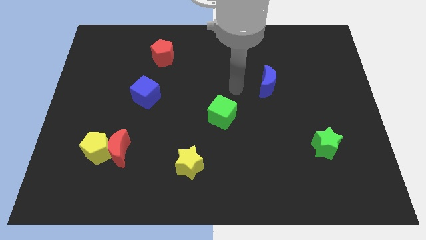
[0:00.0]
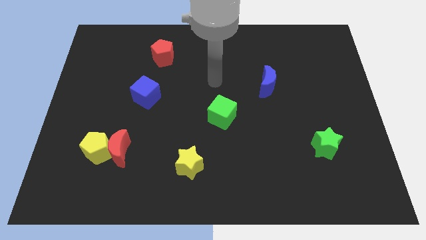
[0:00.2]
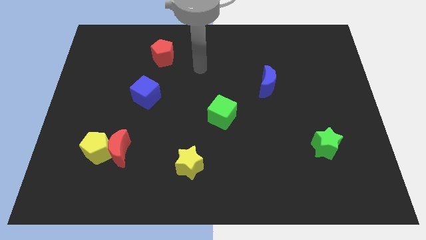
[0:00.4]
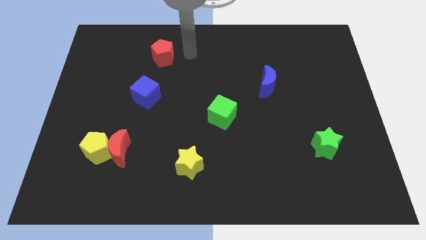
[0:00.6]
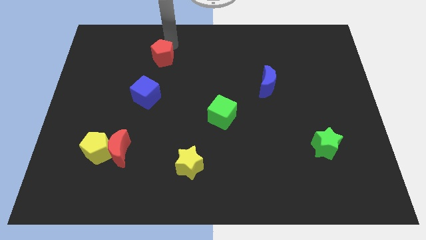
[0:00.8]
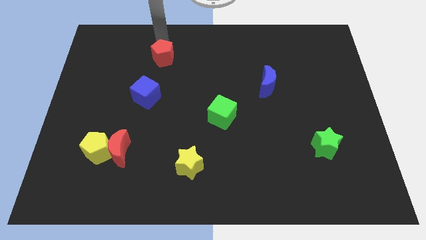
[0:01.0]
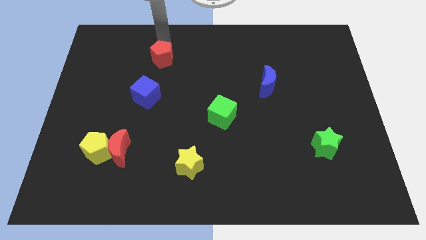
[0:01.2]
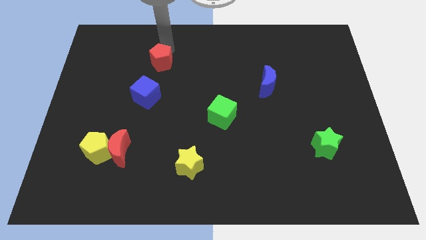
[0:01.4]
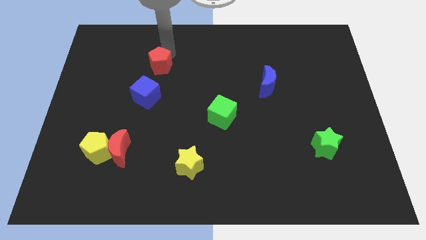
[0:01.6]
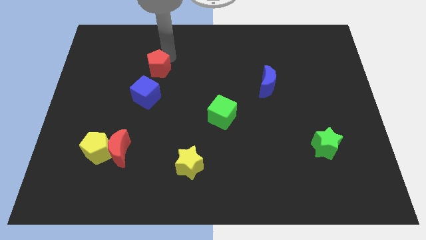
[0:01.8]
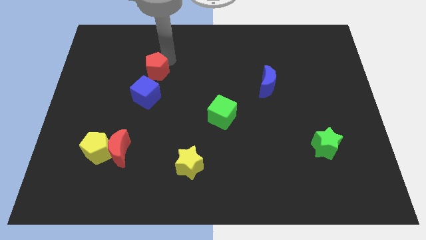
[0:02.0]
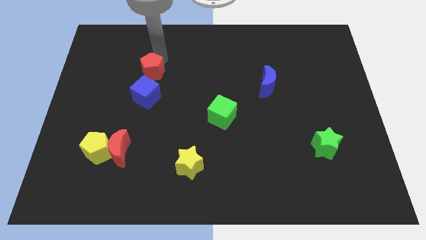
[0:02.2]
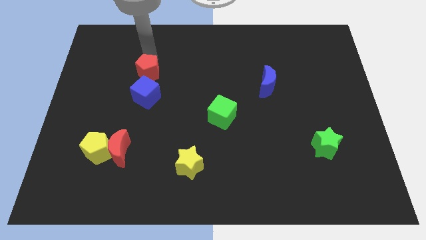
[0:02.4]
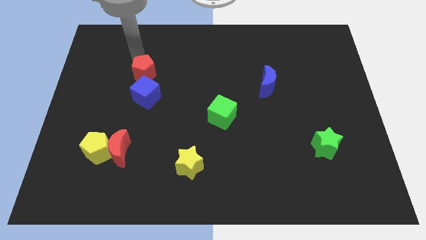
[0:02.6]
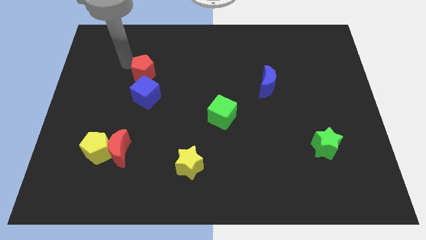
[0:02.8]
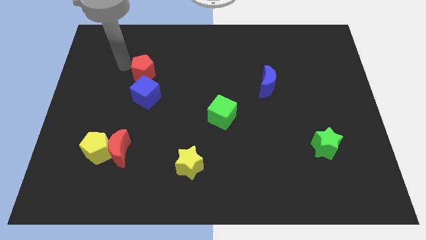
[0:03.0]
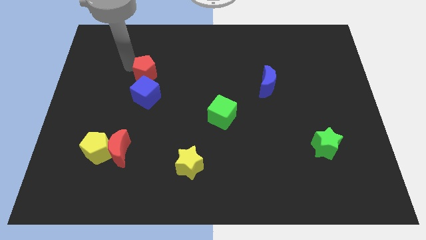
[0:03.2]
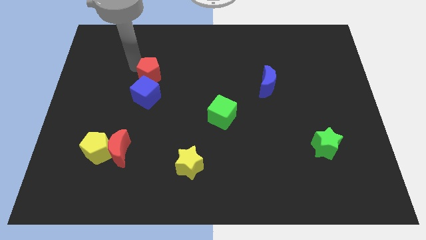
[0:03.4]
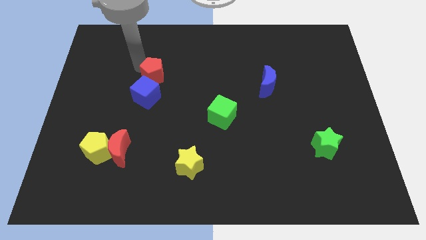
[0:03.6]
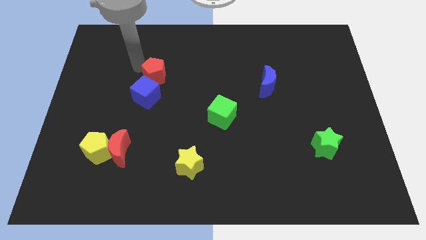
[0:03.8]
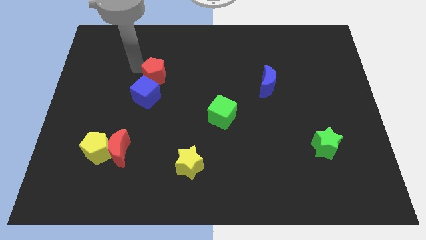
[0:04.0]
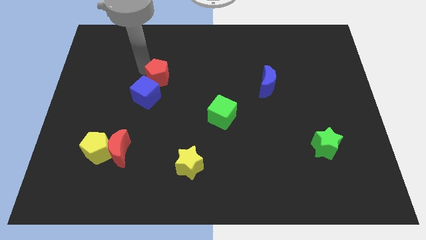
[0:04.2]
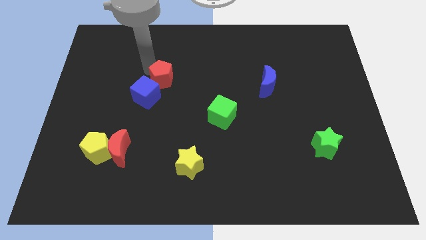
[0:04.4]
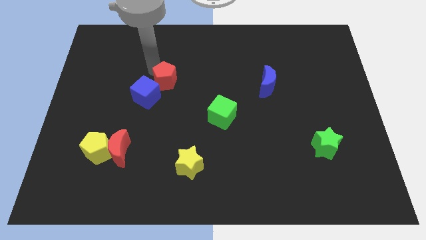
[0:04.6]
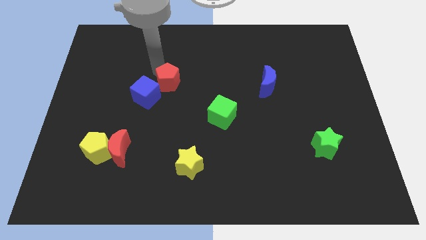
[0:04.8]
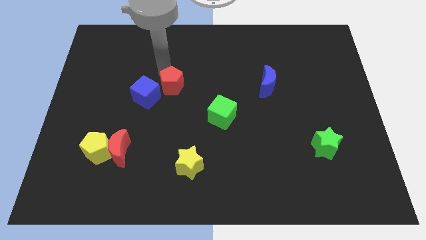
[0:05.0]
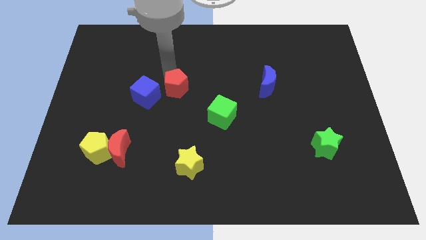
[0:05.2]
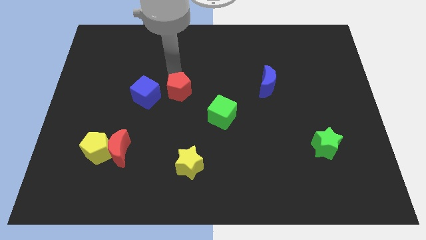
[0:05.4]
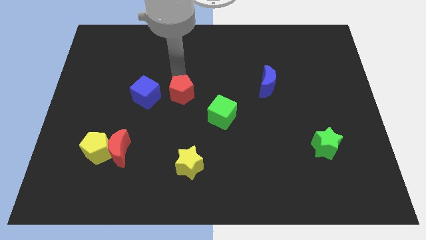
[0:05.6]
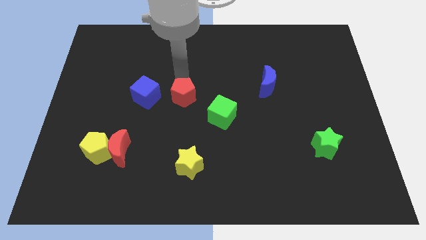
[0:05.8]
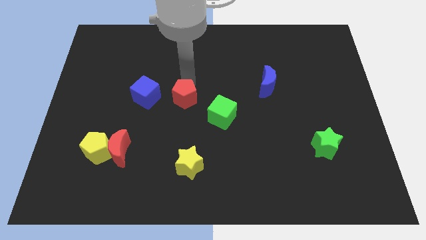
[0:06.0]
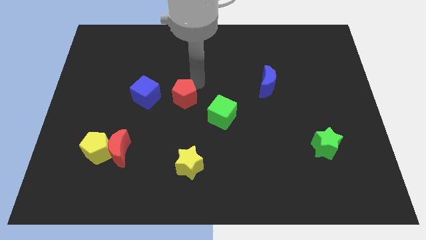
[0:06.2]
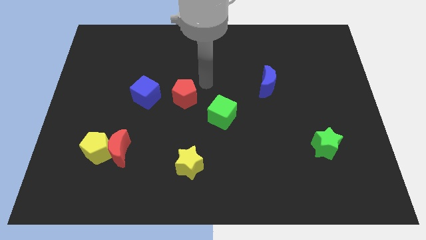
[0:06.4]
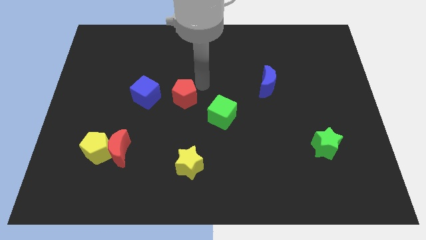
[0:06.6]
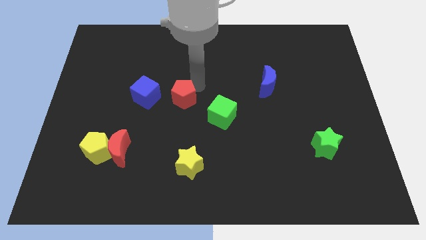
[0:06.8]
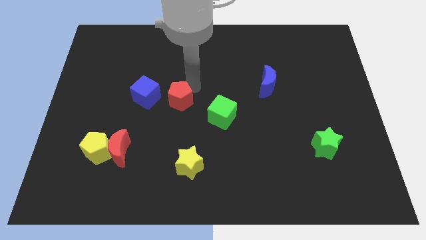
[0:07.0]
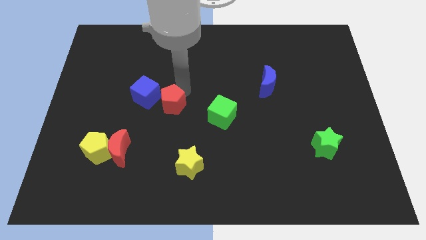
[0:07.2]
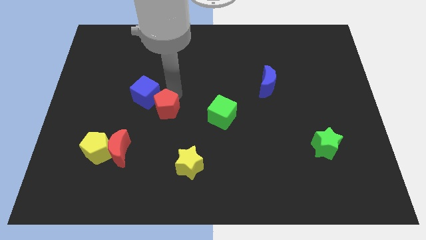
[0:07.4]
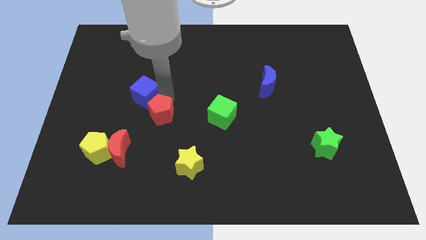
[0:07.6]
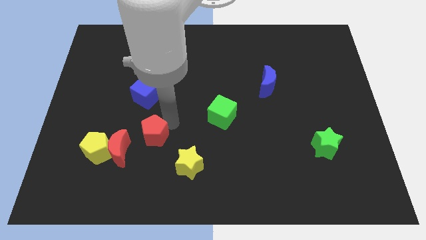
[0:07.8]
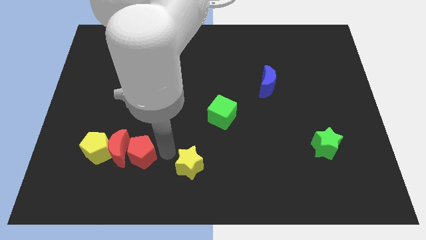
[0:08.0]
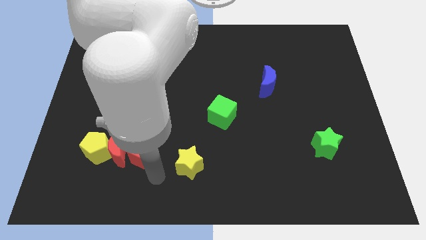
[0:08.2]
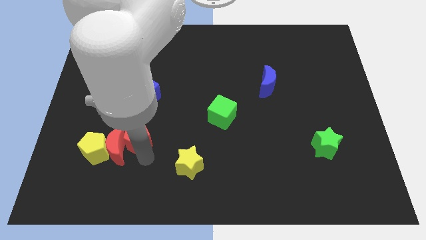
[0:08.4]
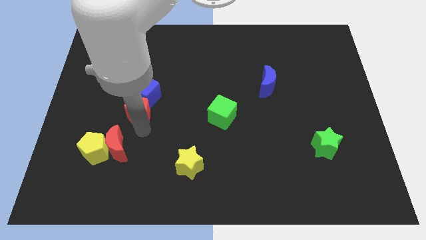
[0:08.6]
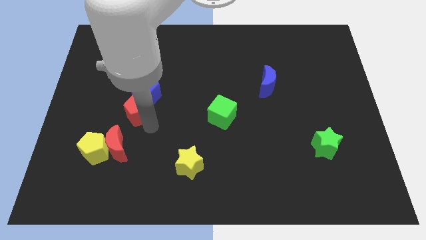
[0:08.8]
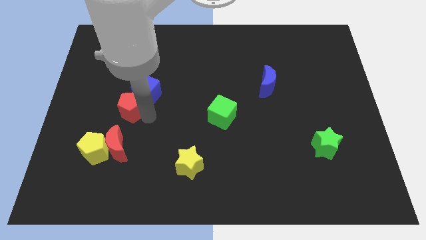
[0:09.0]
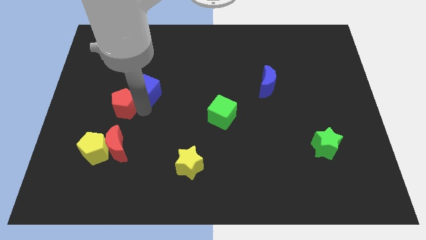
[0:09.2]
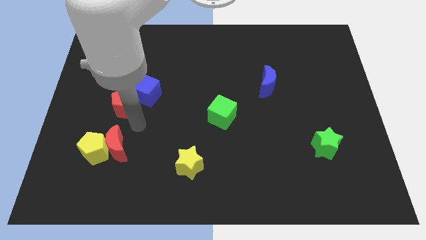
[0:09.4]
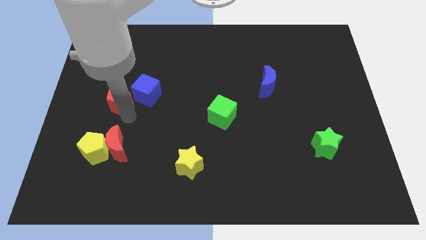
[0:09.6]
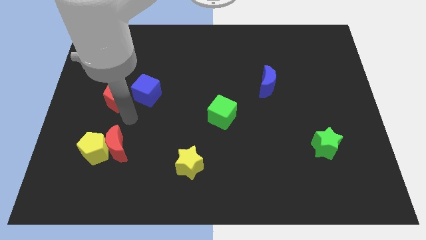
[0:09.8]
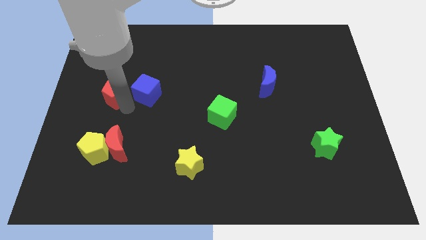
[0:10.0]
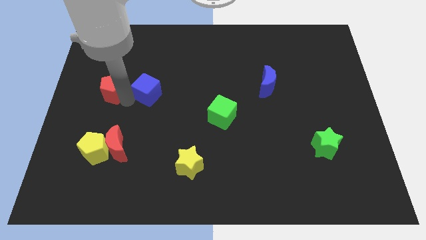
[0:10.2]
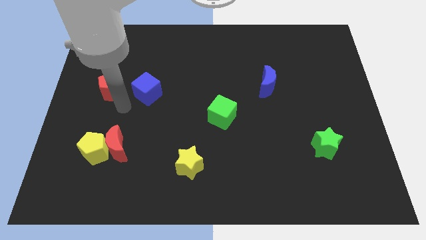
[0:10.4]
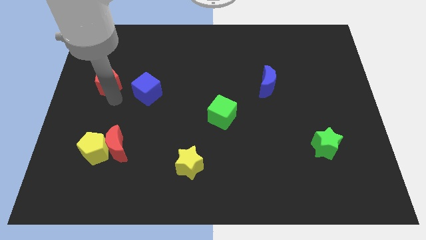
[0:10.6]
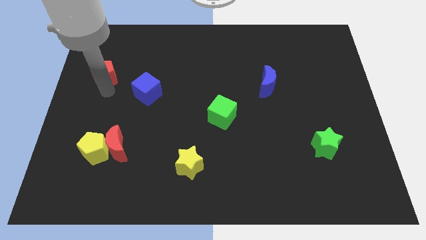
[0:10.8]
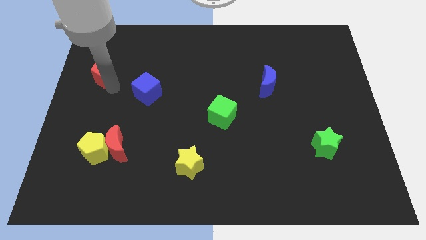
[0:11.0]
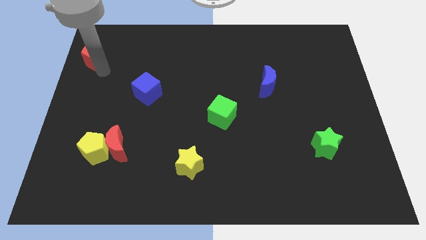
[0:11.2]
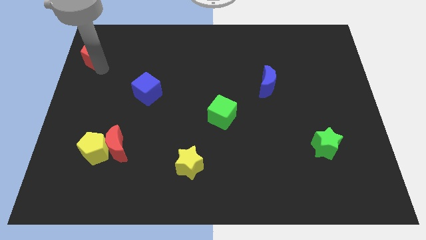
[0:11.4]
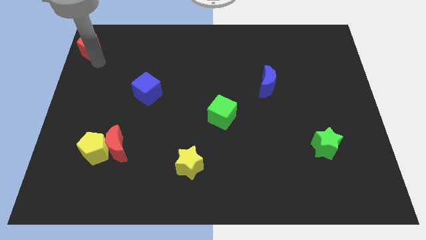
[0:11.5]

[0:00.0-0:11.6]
slide the red pentagon to the upper left corner
